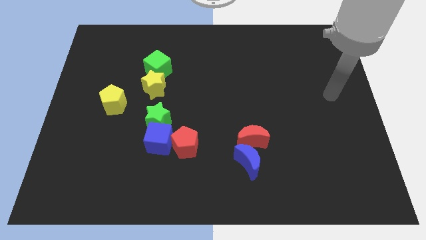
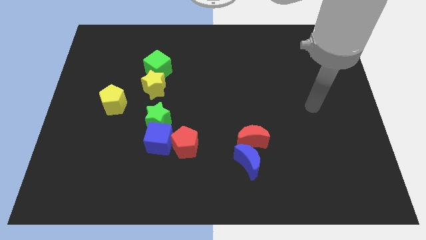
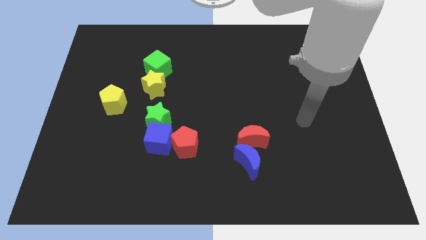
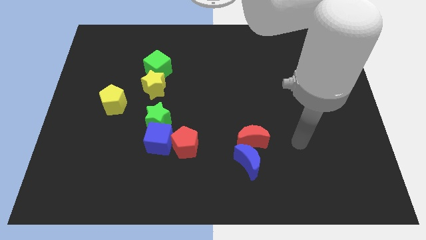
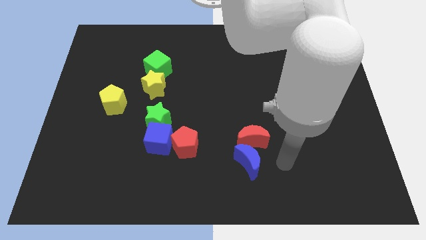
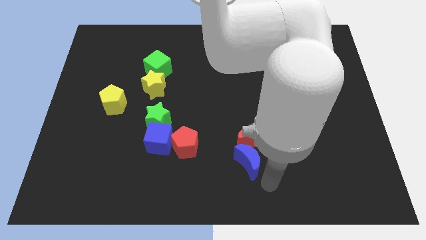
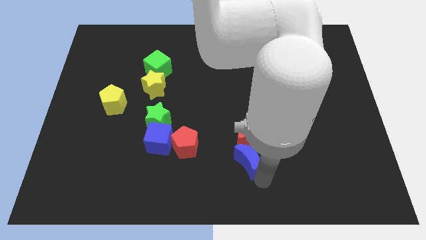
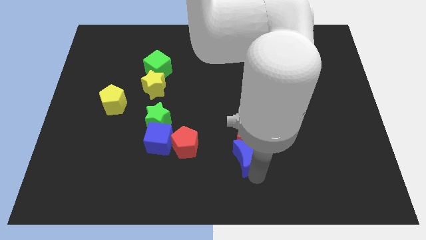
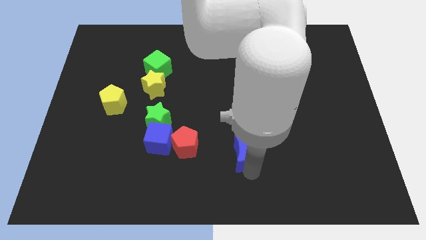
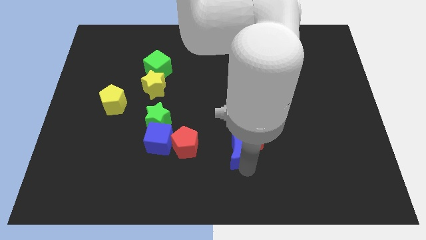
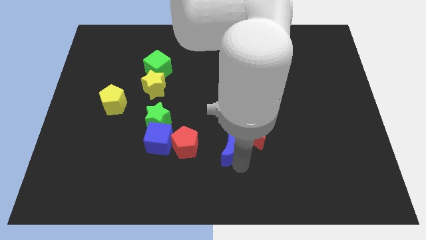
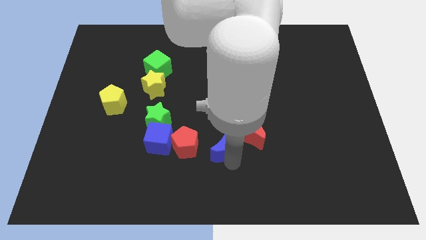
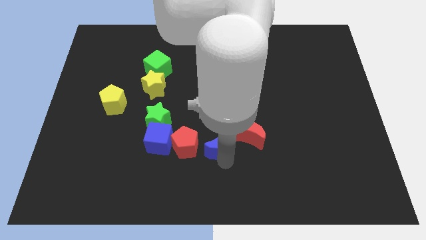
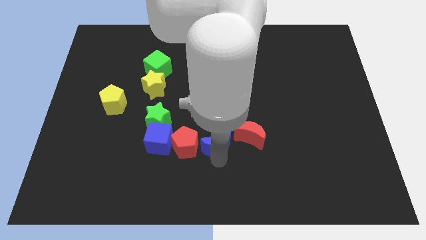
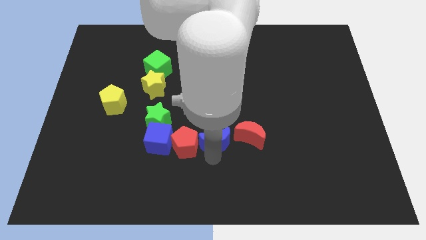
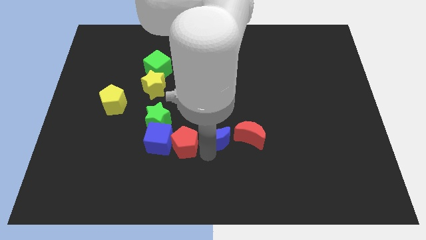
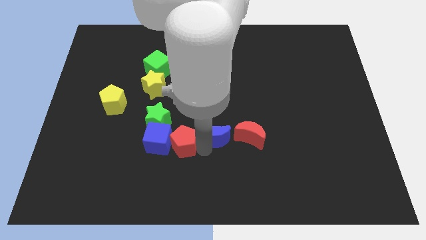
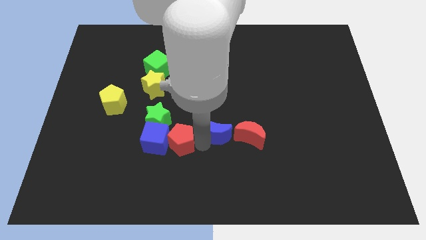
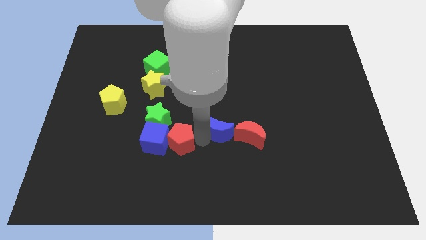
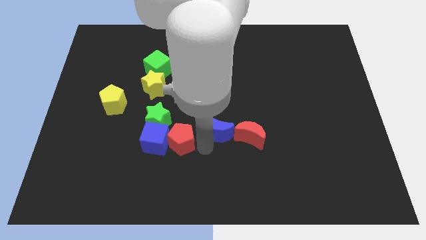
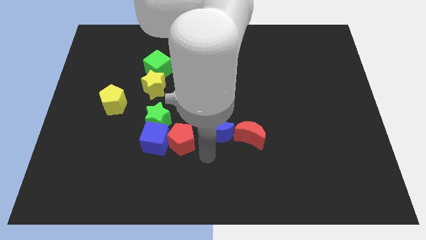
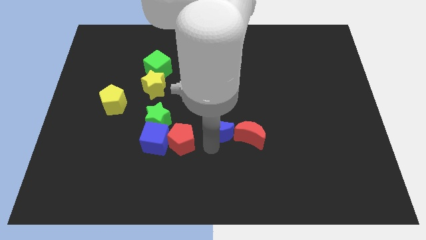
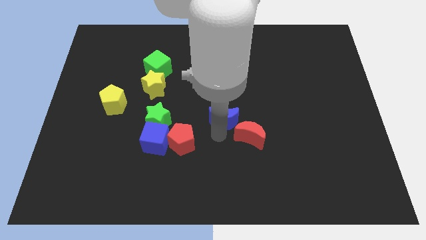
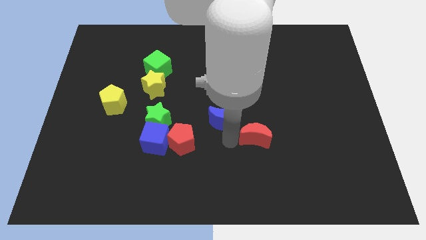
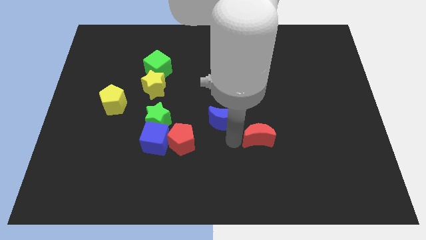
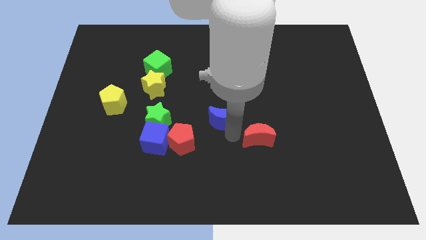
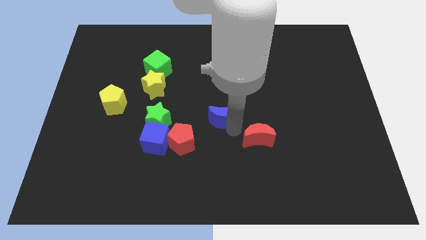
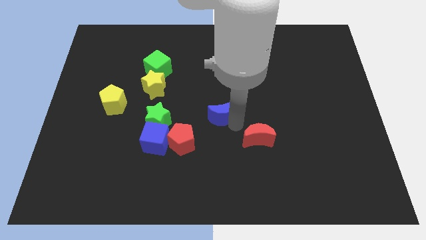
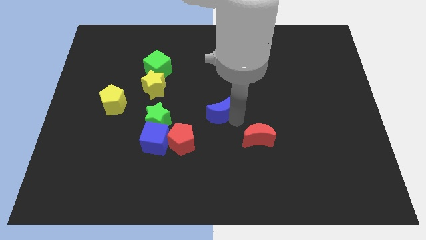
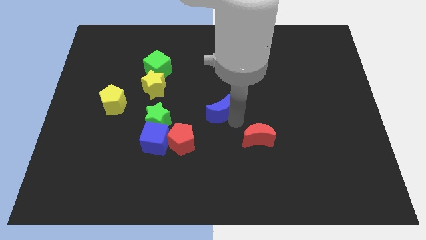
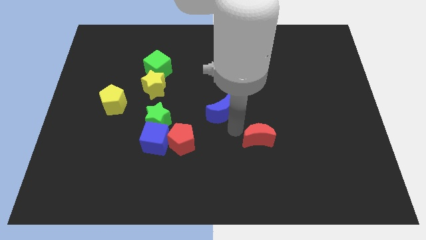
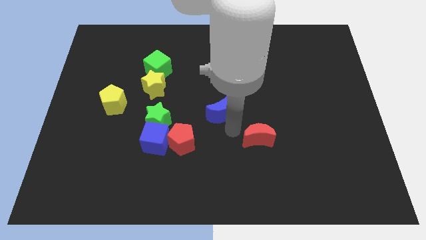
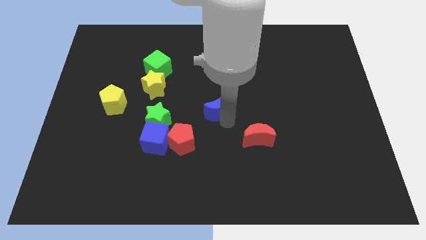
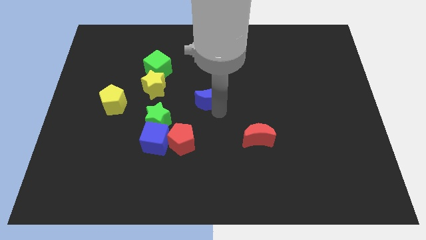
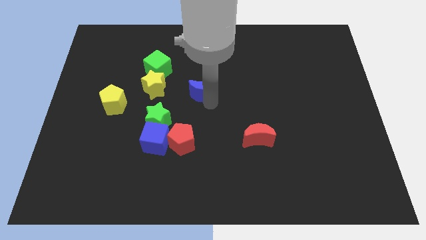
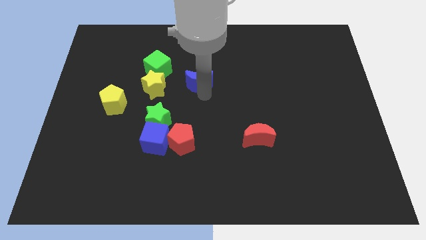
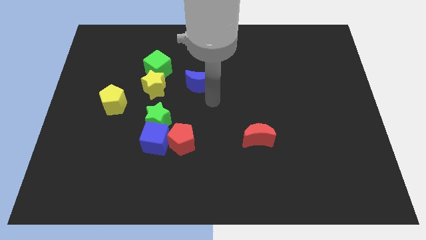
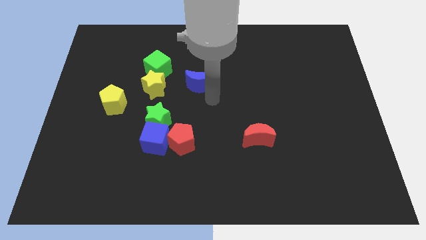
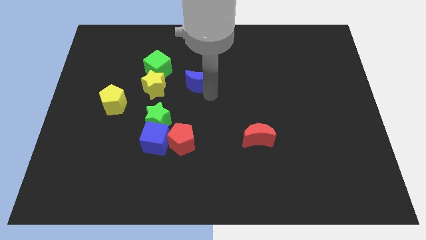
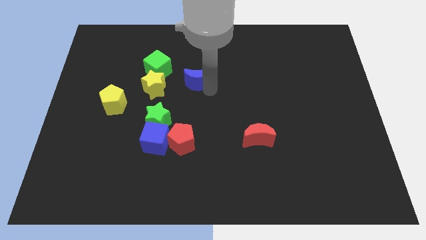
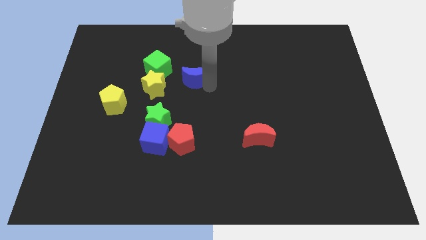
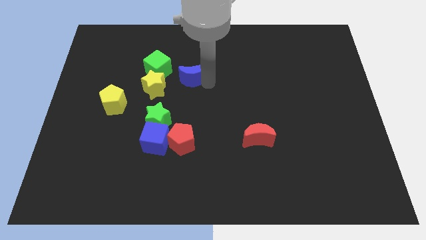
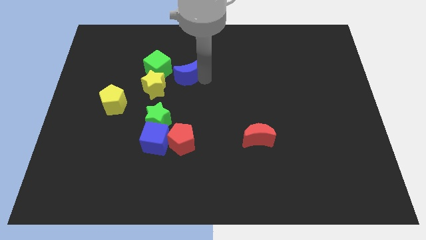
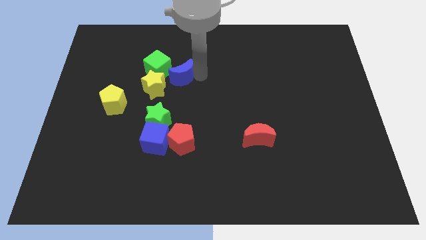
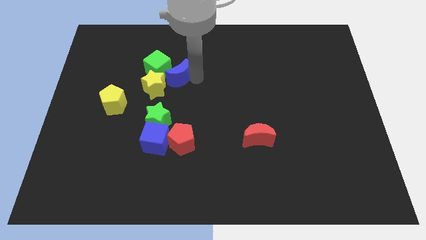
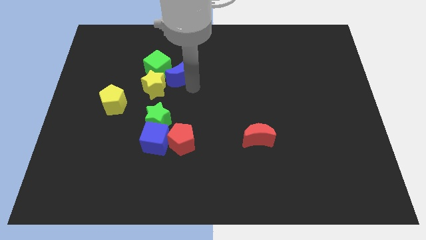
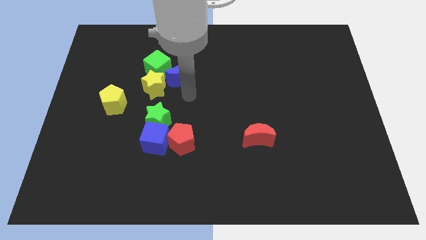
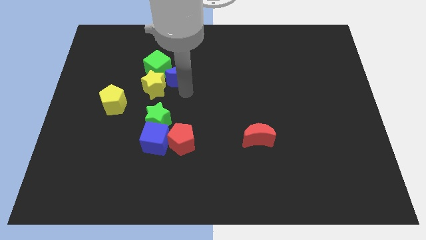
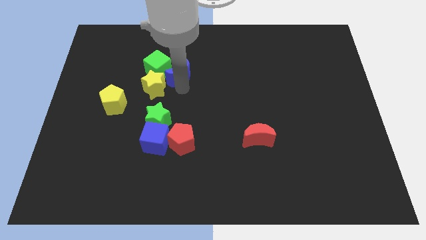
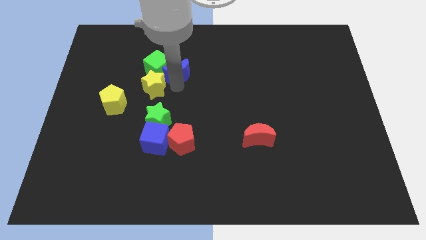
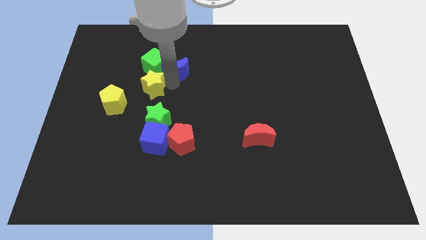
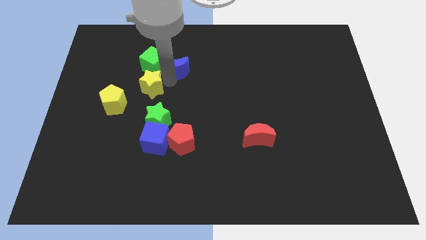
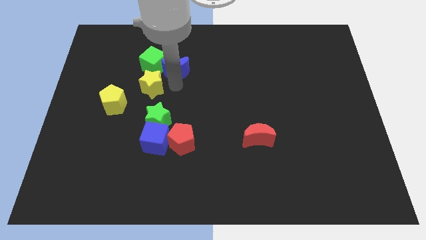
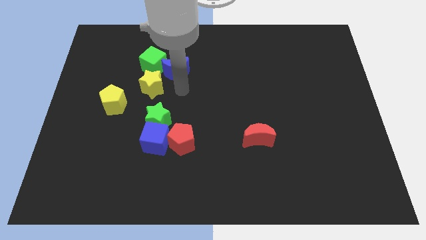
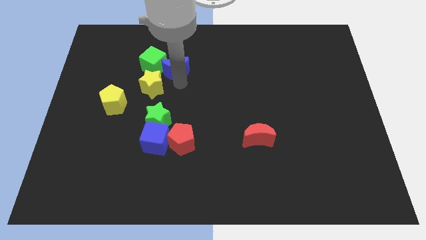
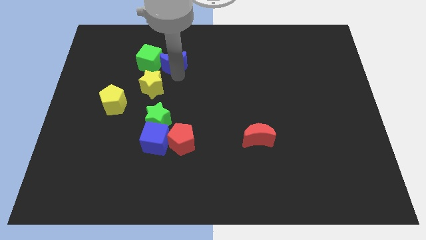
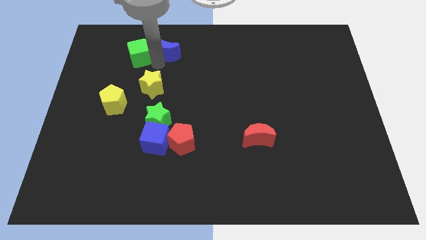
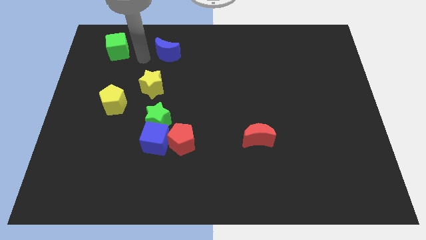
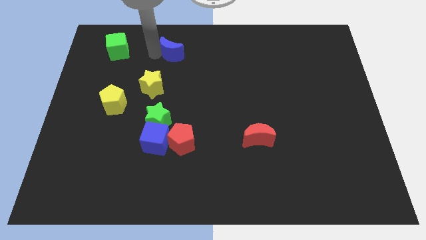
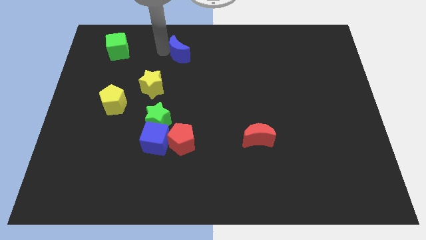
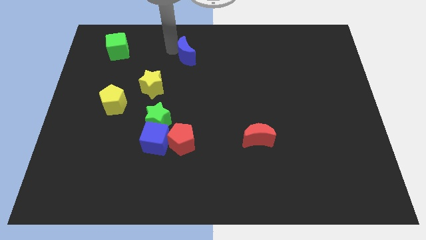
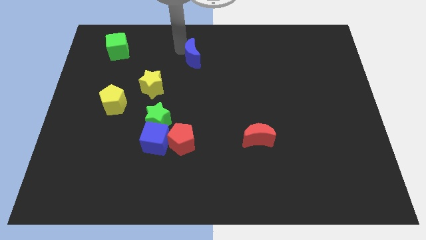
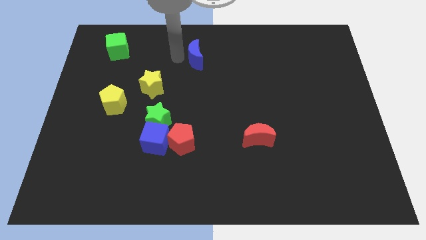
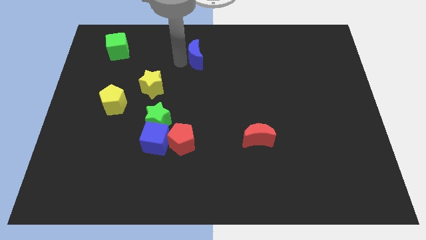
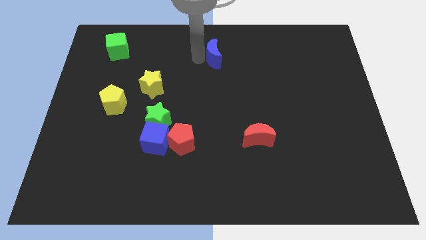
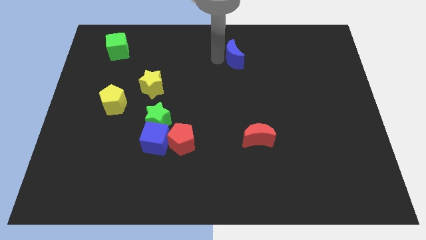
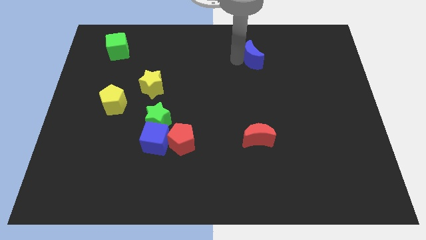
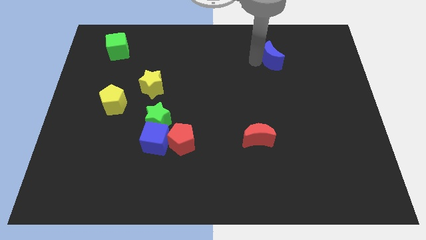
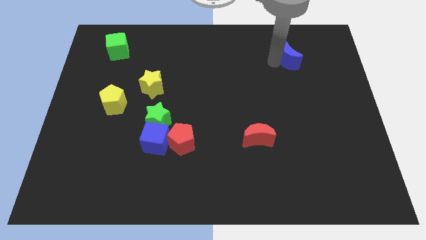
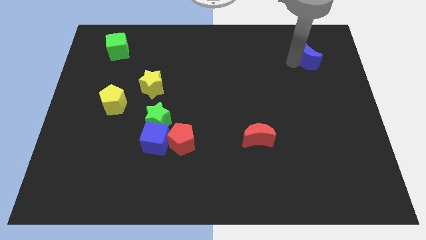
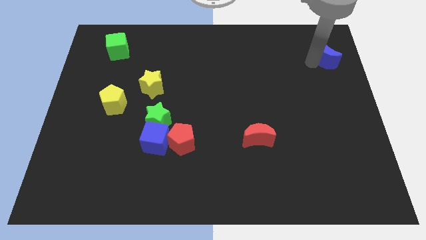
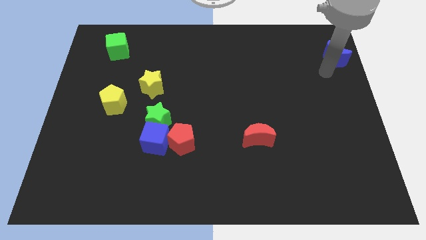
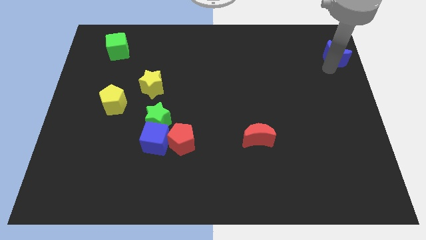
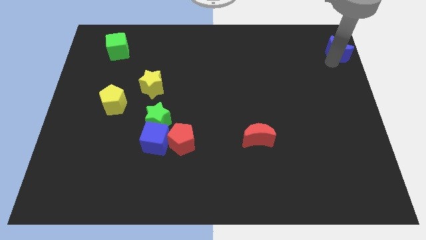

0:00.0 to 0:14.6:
push the blue moon to the top right of the board
